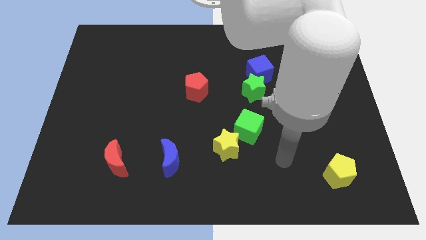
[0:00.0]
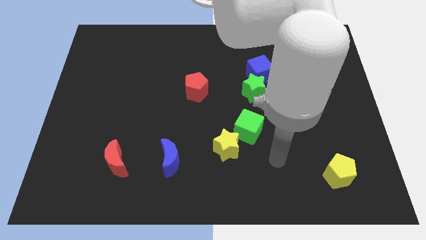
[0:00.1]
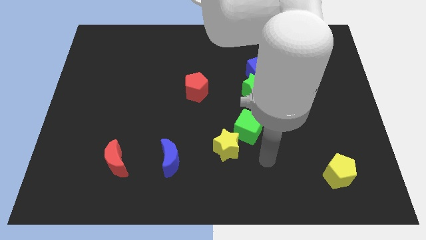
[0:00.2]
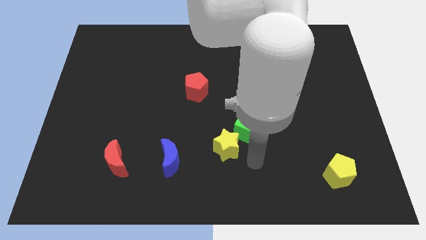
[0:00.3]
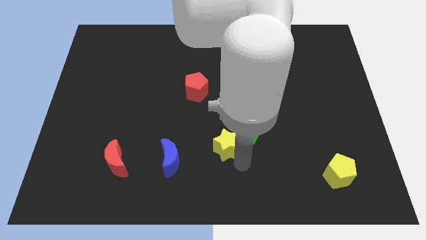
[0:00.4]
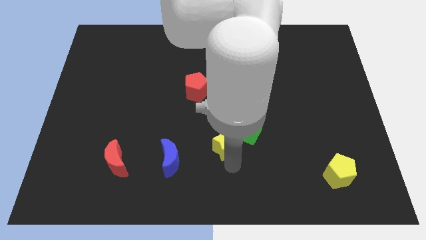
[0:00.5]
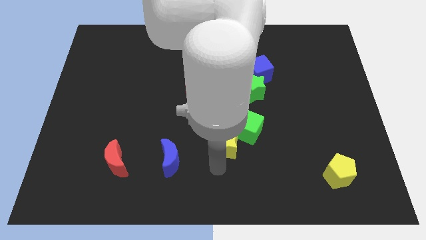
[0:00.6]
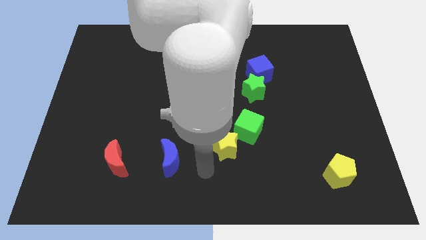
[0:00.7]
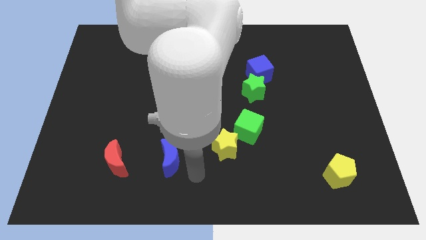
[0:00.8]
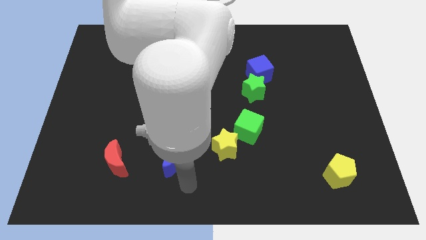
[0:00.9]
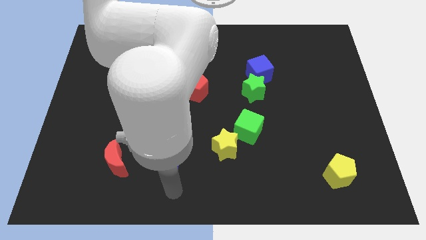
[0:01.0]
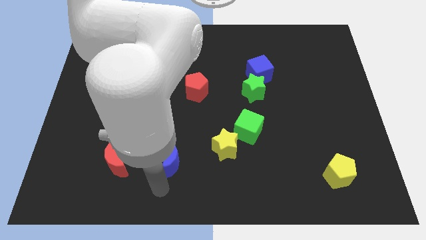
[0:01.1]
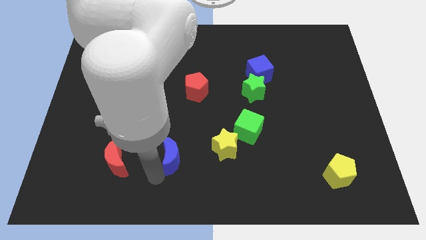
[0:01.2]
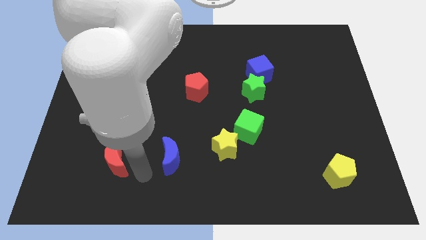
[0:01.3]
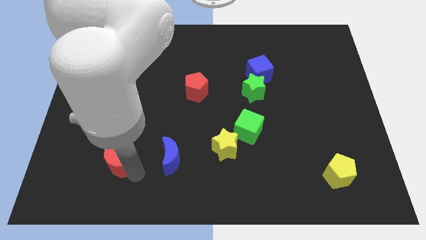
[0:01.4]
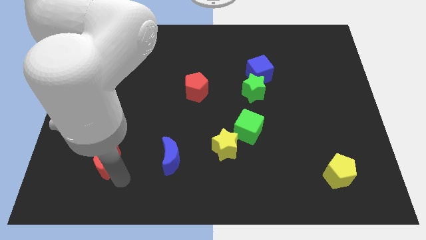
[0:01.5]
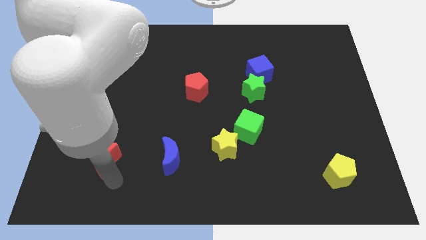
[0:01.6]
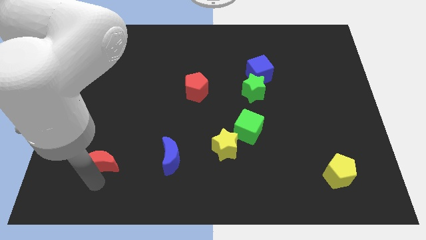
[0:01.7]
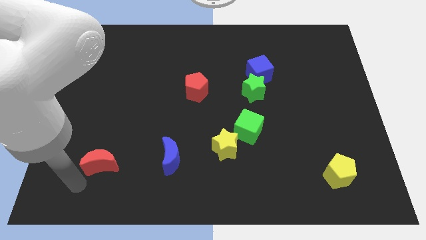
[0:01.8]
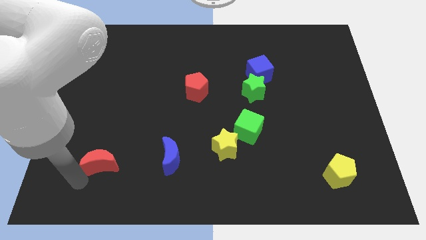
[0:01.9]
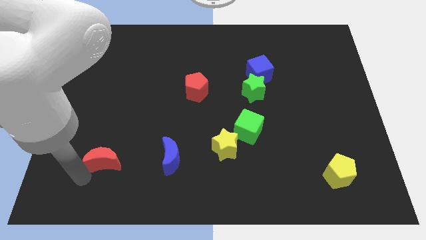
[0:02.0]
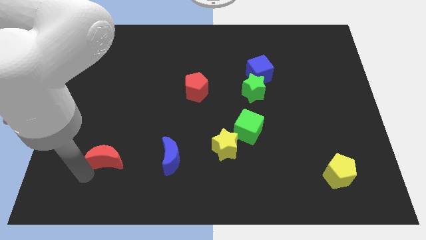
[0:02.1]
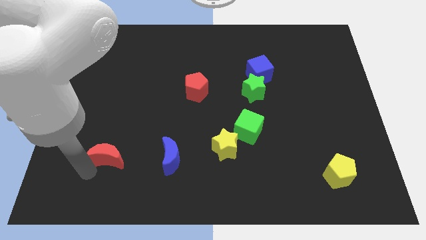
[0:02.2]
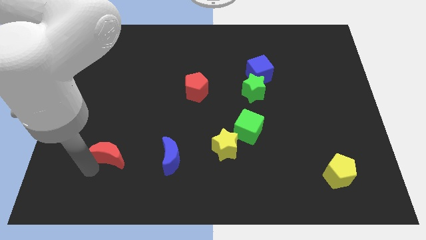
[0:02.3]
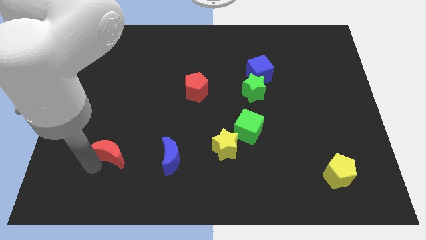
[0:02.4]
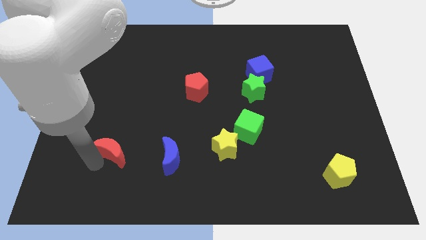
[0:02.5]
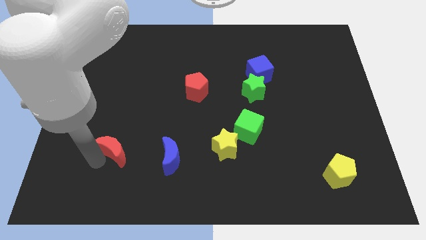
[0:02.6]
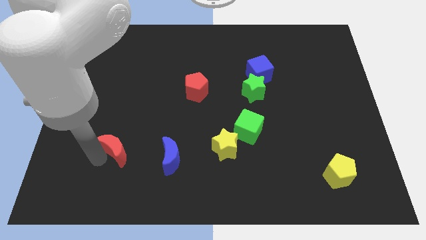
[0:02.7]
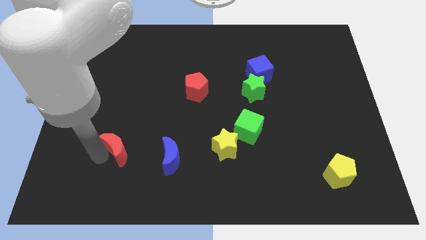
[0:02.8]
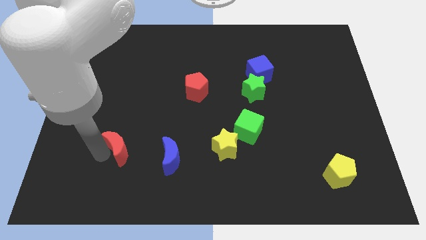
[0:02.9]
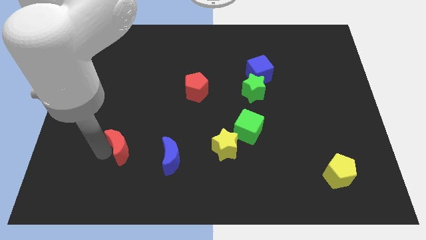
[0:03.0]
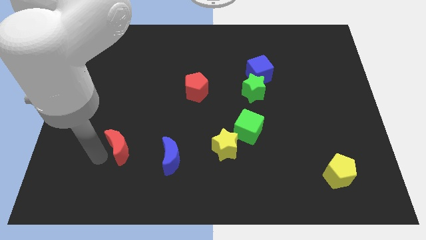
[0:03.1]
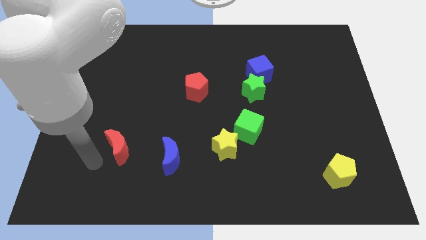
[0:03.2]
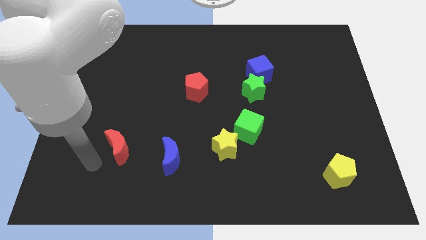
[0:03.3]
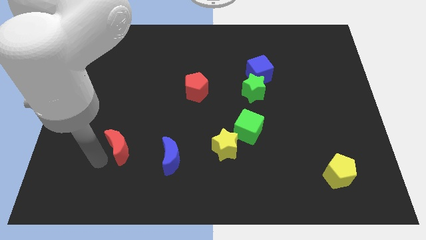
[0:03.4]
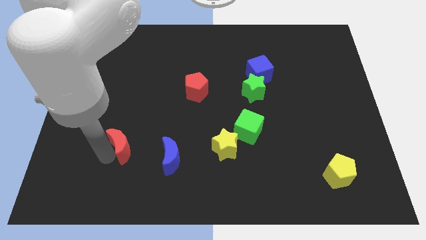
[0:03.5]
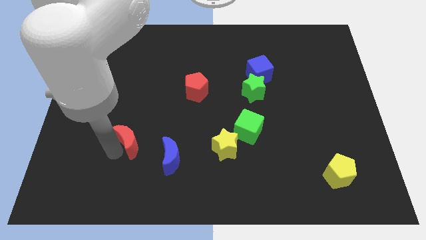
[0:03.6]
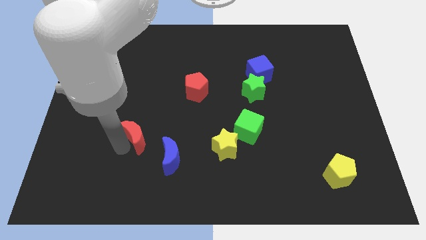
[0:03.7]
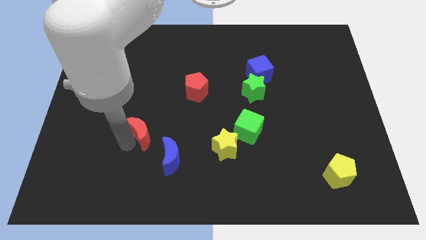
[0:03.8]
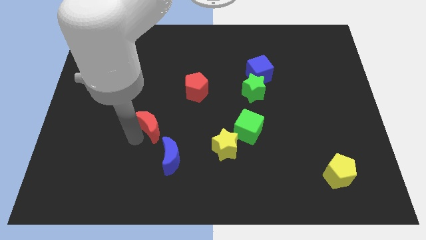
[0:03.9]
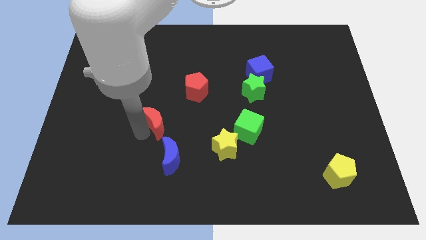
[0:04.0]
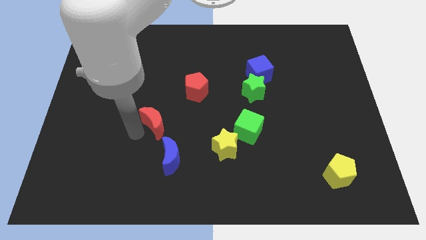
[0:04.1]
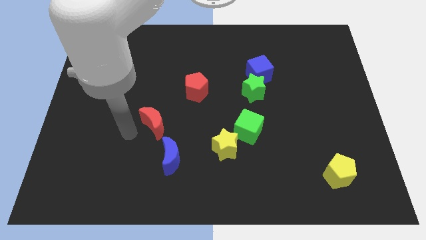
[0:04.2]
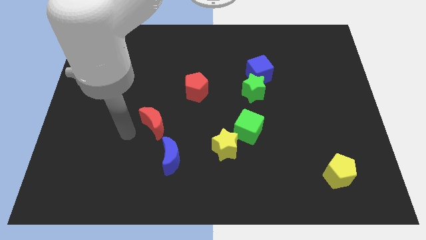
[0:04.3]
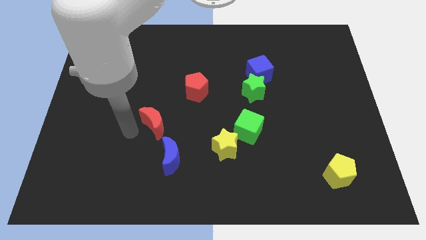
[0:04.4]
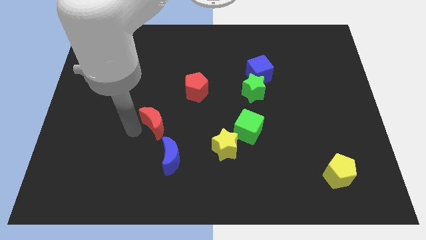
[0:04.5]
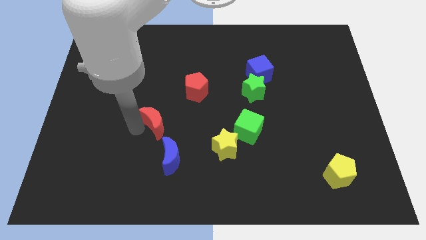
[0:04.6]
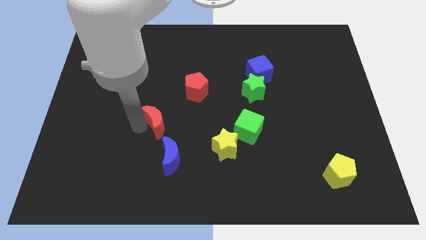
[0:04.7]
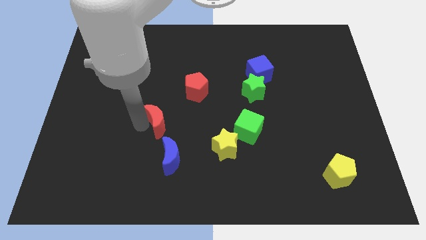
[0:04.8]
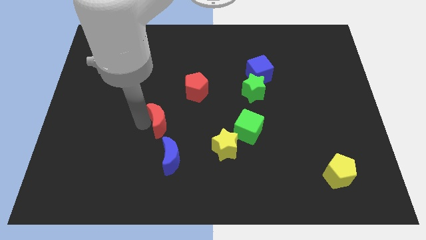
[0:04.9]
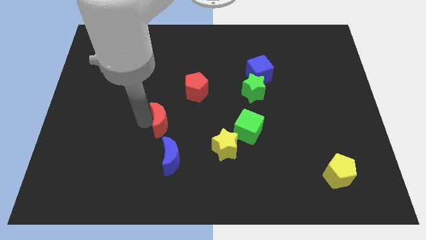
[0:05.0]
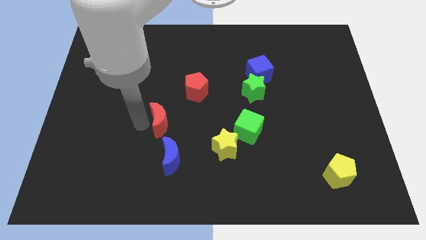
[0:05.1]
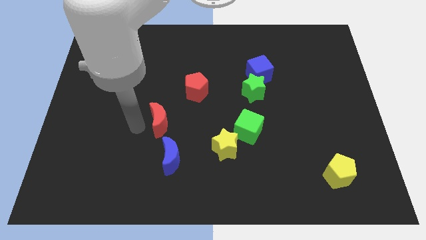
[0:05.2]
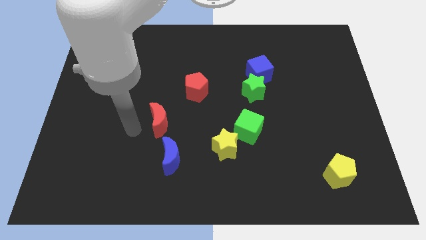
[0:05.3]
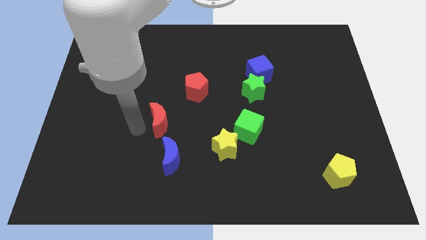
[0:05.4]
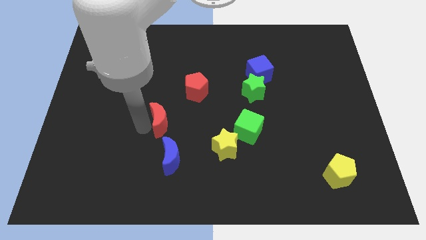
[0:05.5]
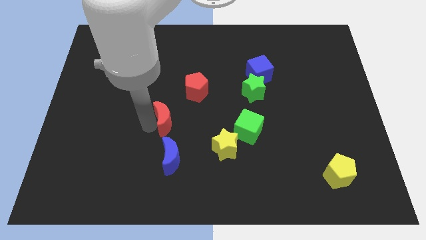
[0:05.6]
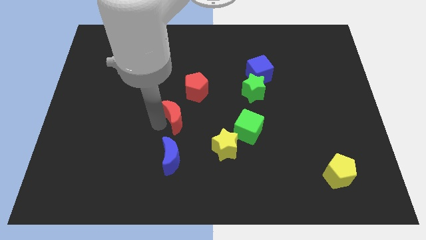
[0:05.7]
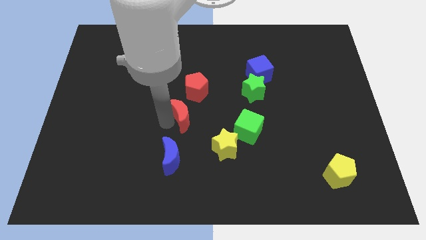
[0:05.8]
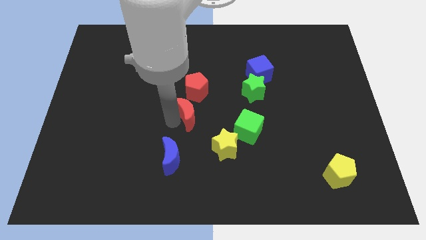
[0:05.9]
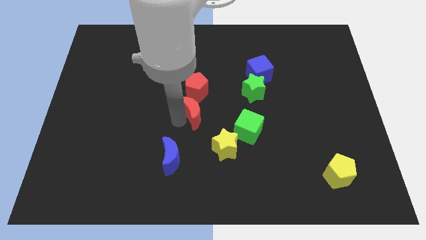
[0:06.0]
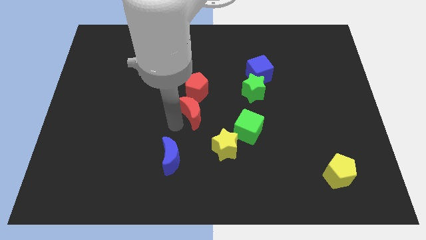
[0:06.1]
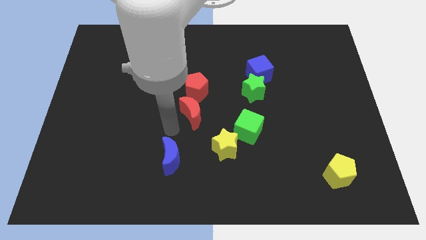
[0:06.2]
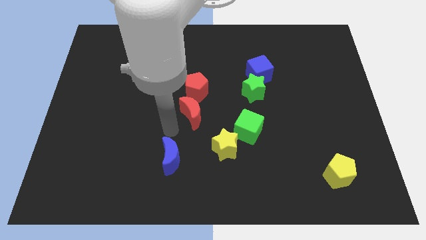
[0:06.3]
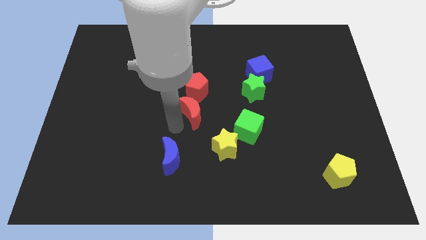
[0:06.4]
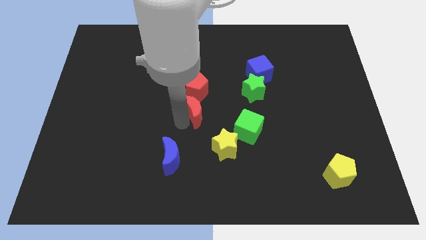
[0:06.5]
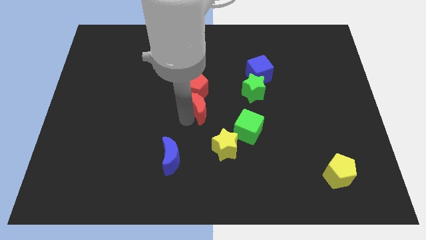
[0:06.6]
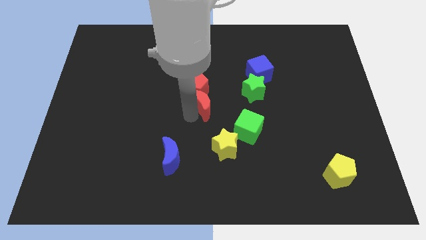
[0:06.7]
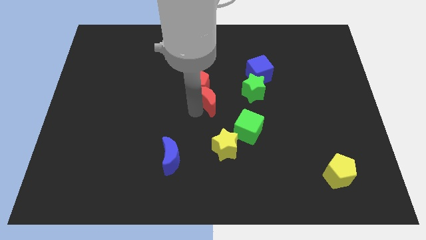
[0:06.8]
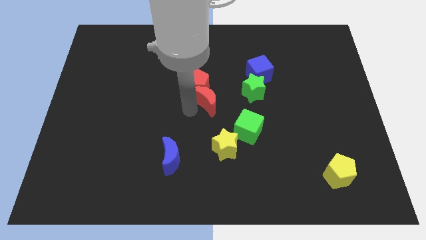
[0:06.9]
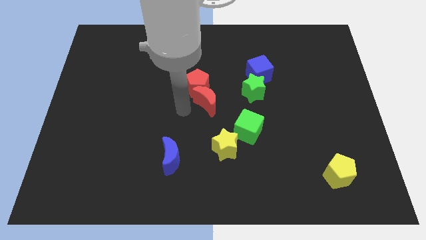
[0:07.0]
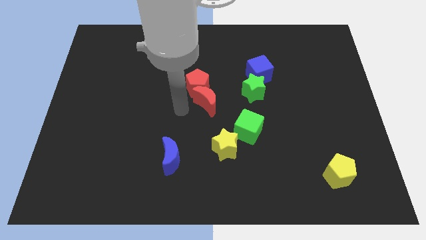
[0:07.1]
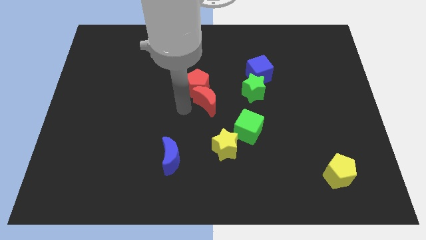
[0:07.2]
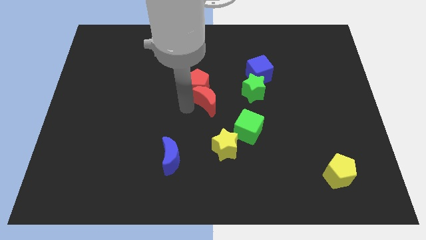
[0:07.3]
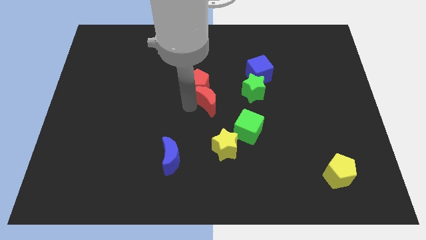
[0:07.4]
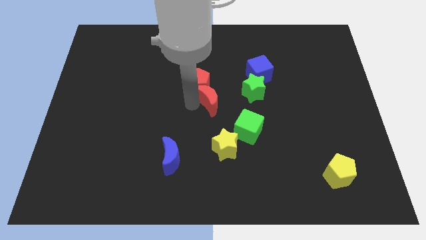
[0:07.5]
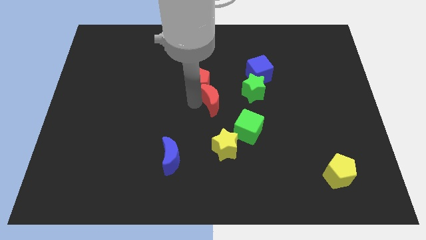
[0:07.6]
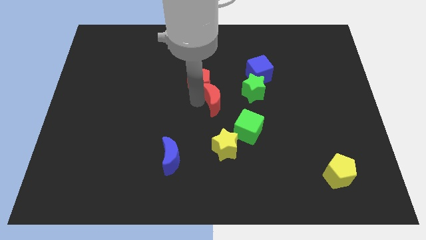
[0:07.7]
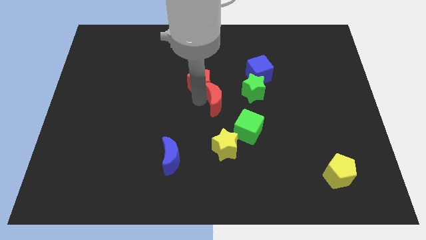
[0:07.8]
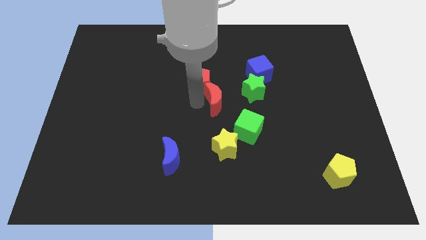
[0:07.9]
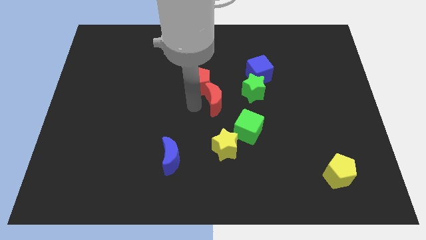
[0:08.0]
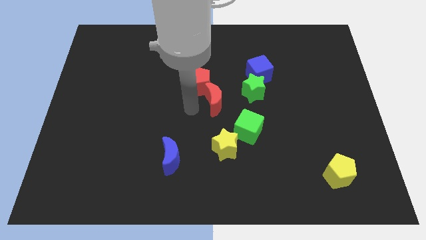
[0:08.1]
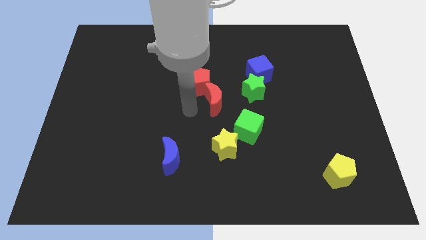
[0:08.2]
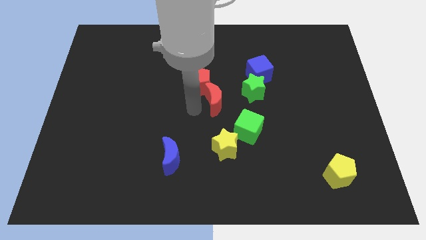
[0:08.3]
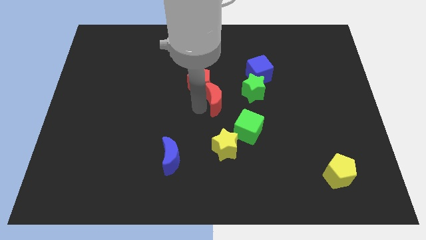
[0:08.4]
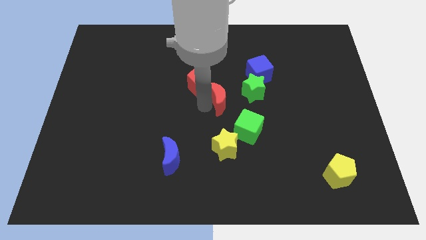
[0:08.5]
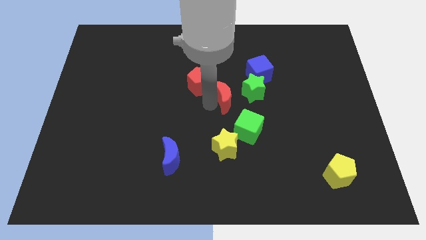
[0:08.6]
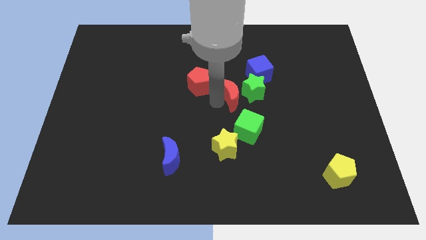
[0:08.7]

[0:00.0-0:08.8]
push the red moon close to the green star
